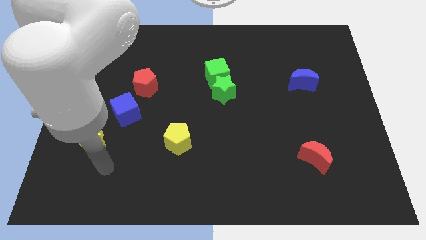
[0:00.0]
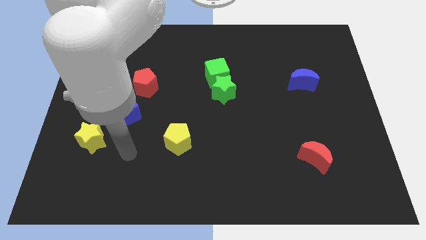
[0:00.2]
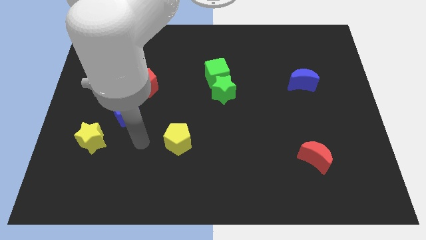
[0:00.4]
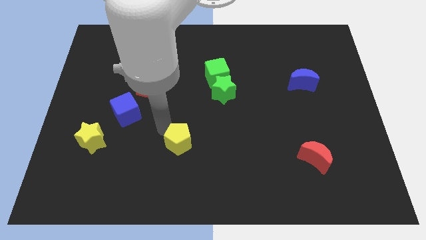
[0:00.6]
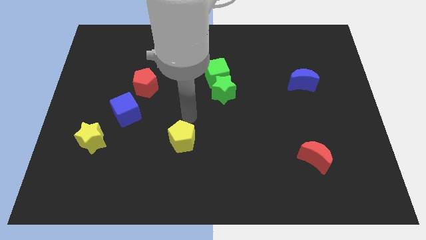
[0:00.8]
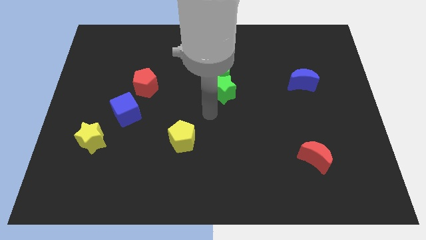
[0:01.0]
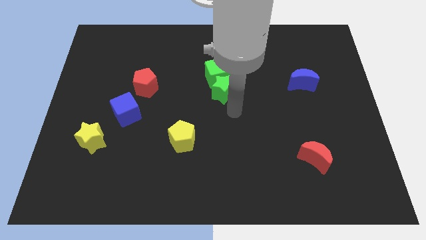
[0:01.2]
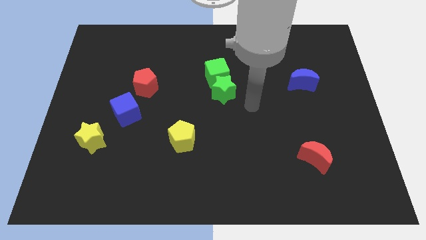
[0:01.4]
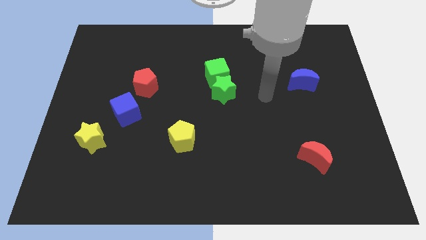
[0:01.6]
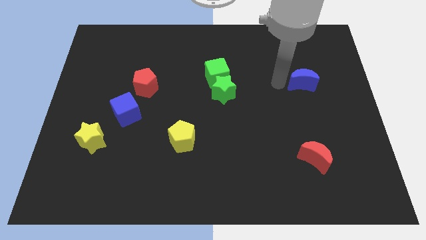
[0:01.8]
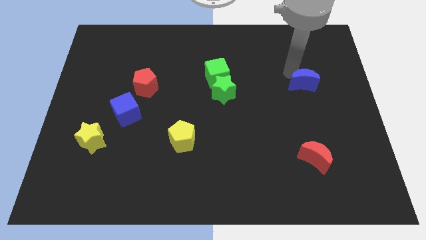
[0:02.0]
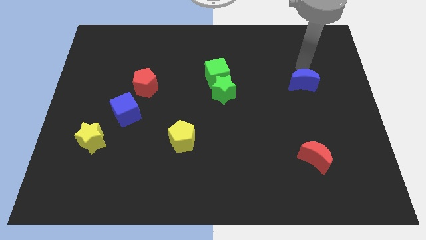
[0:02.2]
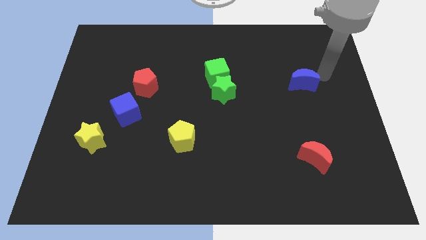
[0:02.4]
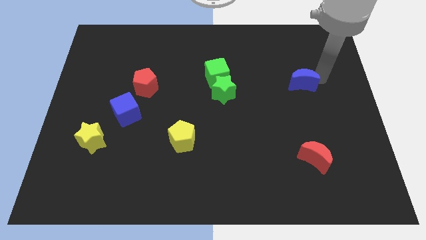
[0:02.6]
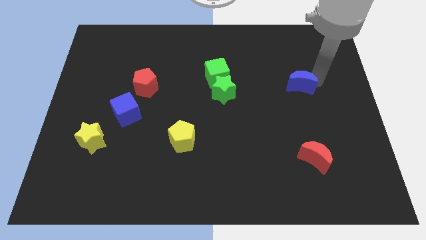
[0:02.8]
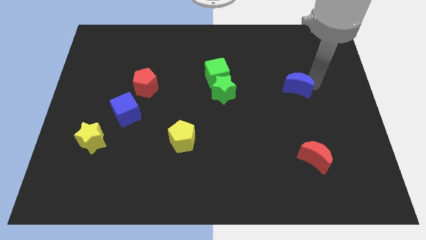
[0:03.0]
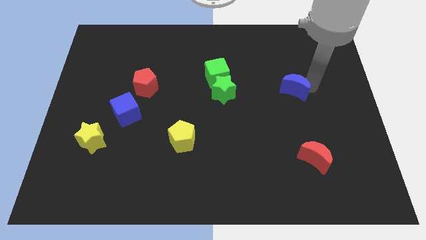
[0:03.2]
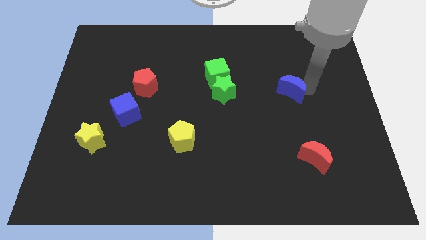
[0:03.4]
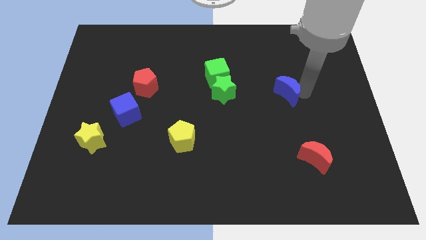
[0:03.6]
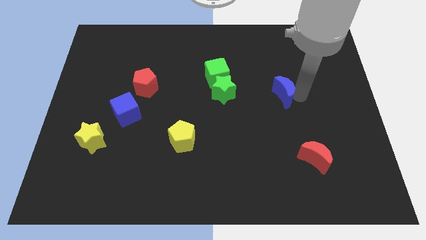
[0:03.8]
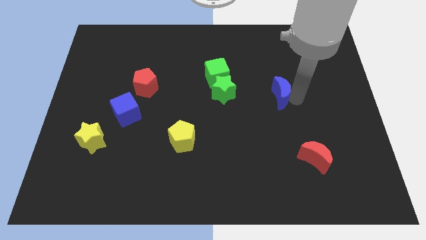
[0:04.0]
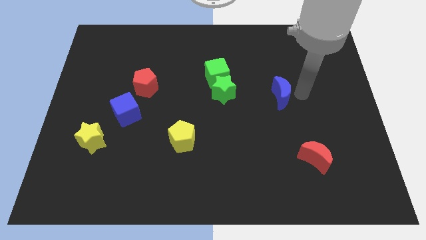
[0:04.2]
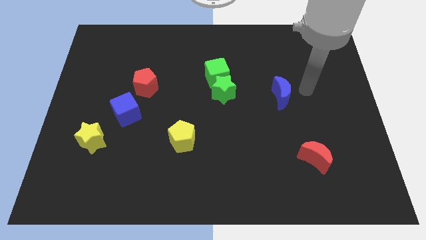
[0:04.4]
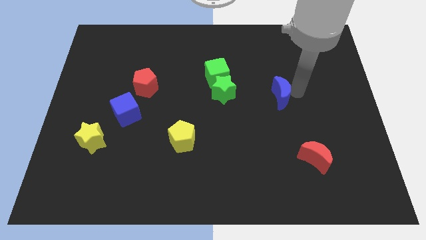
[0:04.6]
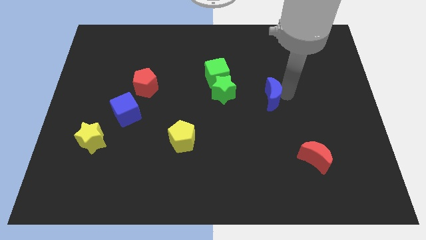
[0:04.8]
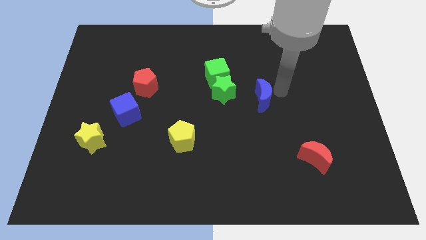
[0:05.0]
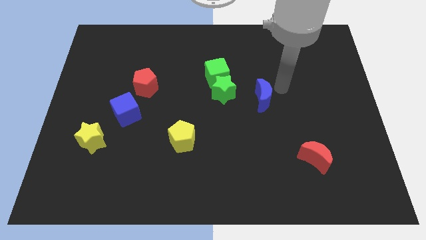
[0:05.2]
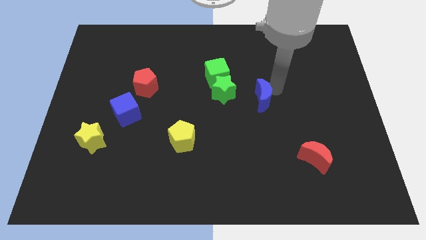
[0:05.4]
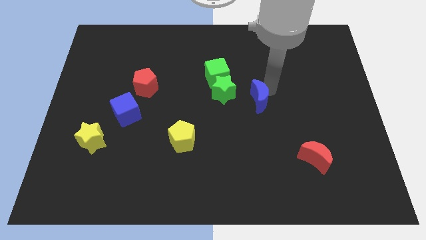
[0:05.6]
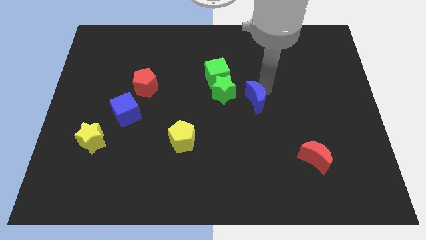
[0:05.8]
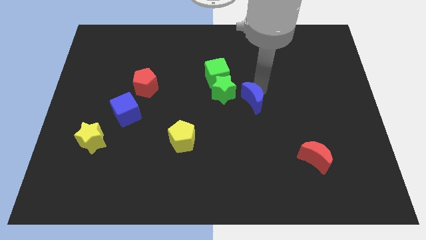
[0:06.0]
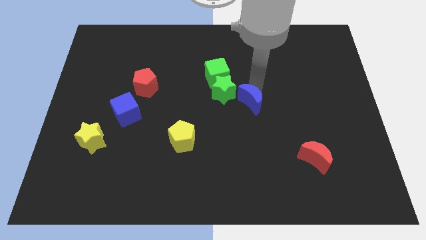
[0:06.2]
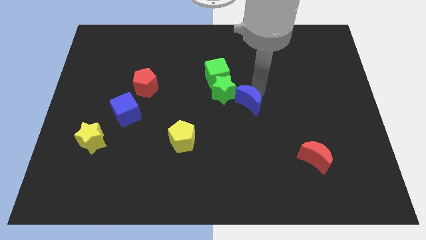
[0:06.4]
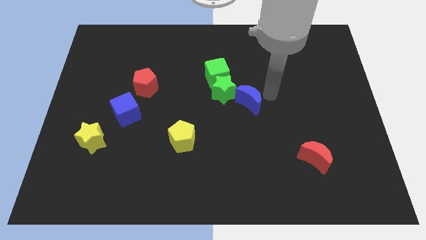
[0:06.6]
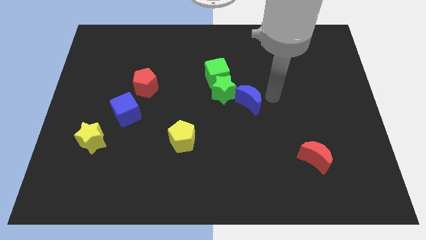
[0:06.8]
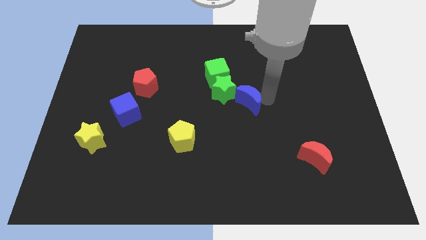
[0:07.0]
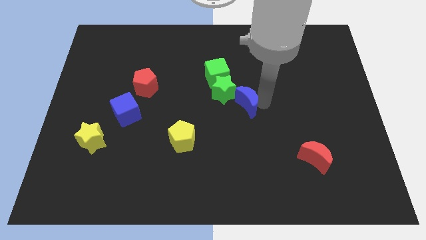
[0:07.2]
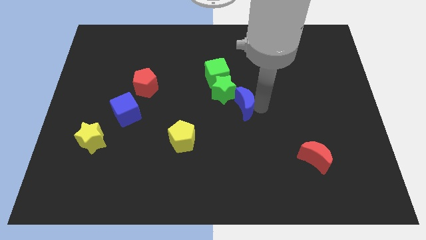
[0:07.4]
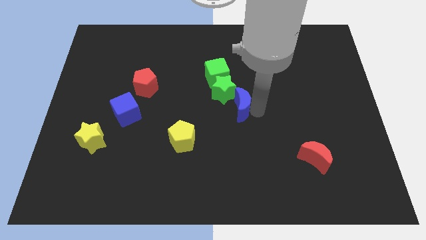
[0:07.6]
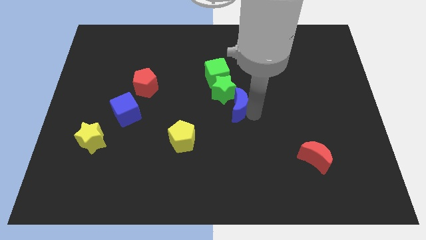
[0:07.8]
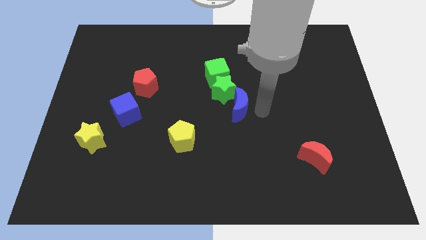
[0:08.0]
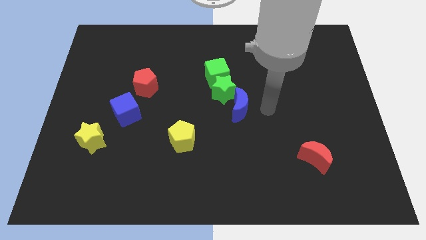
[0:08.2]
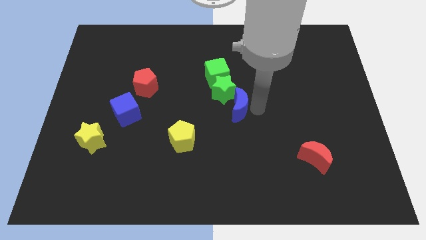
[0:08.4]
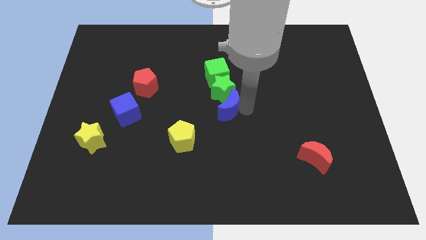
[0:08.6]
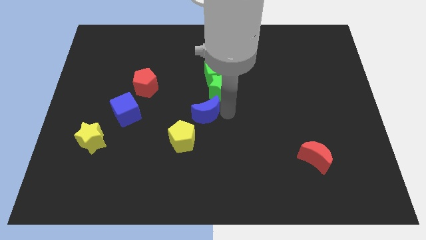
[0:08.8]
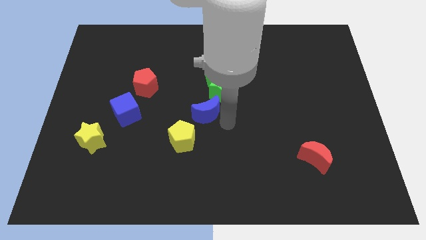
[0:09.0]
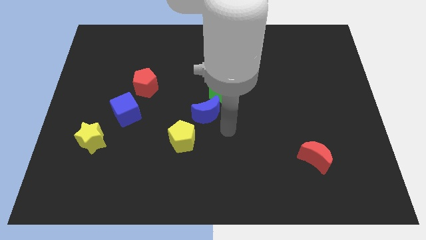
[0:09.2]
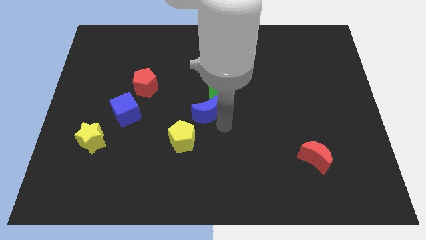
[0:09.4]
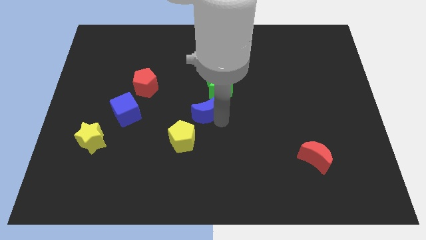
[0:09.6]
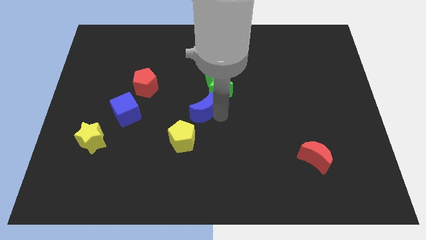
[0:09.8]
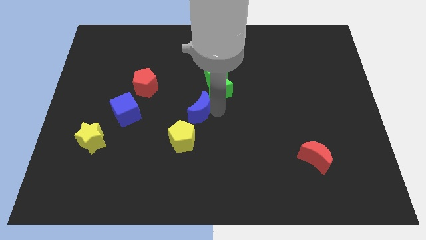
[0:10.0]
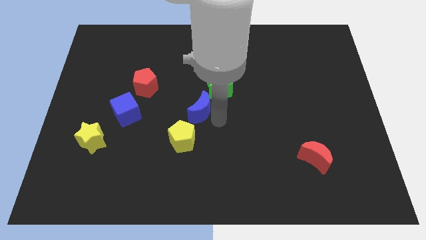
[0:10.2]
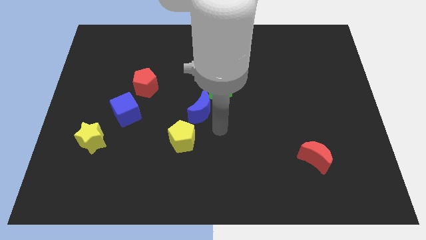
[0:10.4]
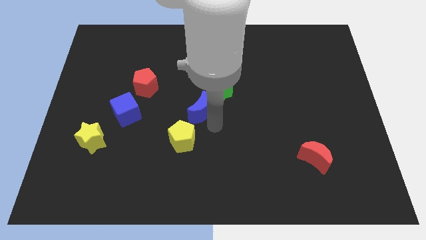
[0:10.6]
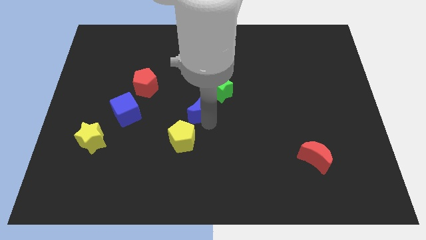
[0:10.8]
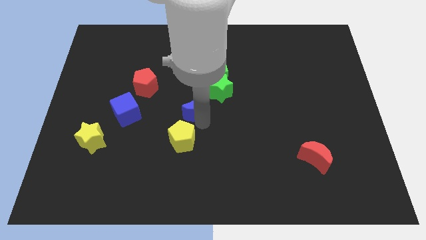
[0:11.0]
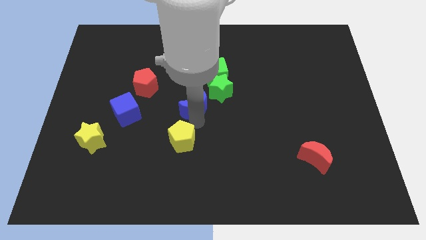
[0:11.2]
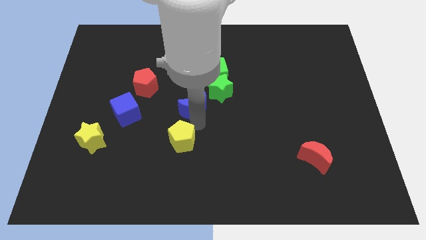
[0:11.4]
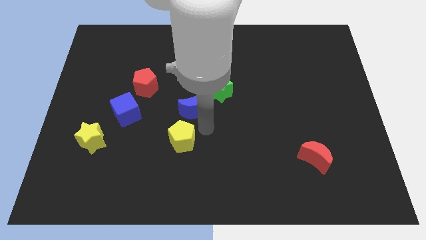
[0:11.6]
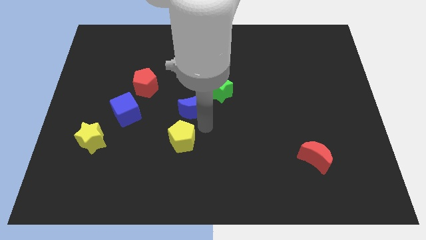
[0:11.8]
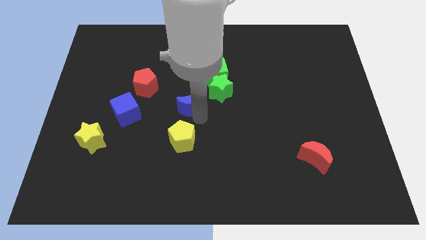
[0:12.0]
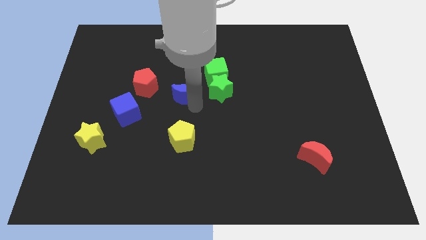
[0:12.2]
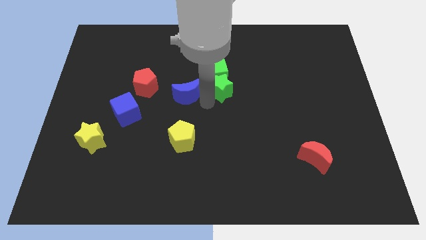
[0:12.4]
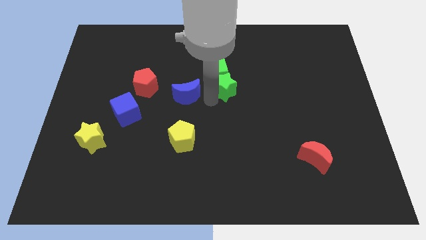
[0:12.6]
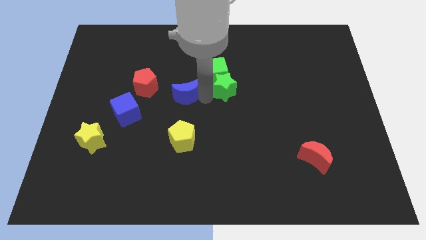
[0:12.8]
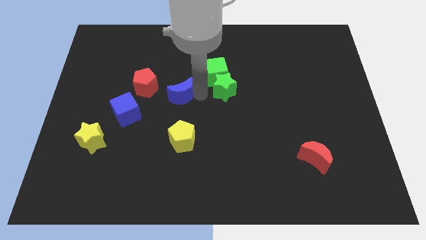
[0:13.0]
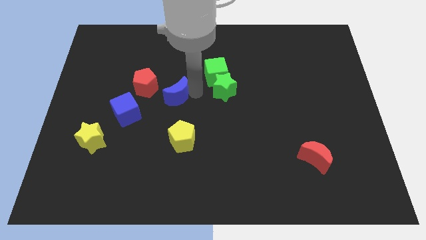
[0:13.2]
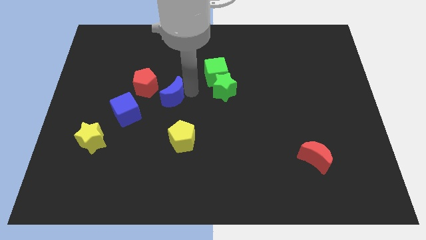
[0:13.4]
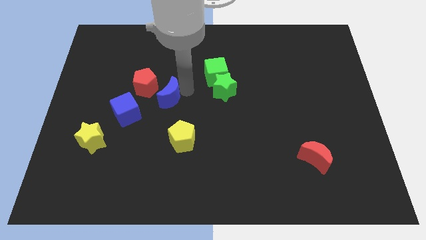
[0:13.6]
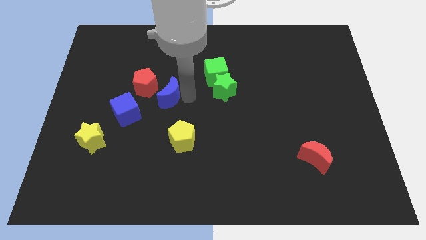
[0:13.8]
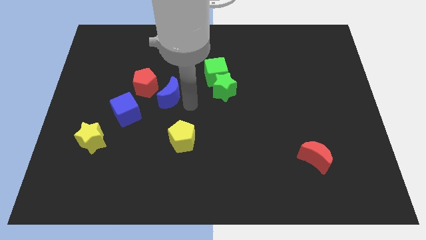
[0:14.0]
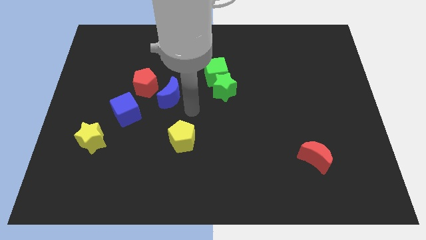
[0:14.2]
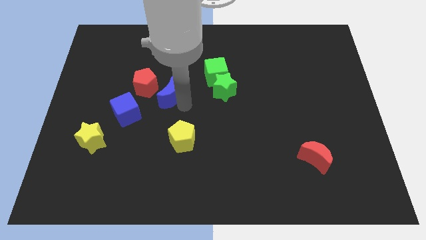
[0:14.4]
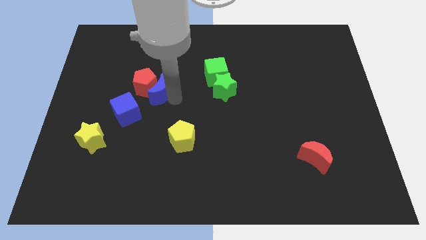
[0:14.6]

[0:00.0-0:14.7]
put the blue moon to the red pentagon
